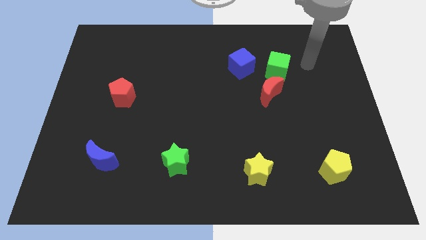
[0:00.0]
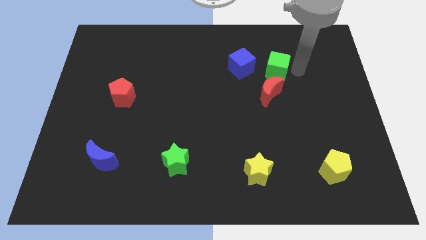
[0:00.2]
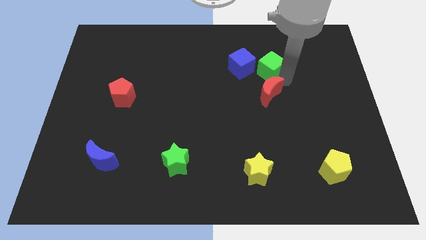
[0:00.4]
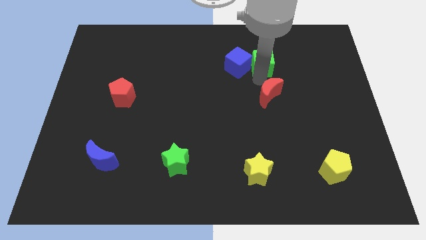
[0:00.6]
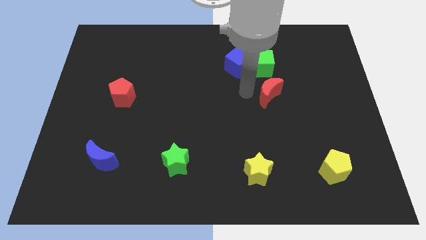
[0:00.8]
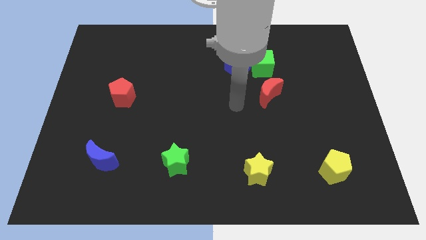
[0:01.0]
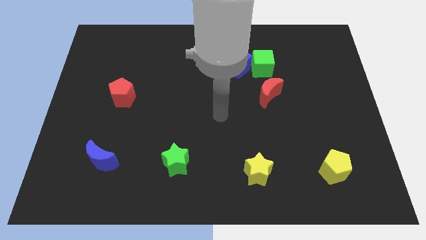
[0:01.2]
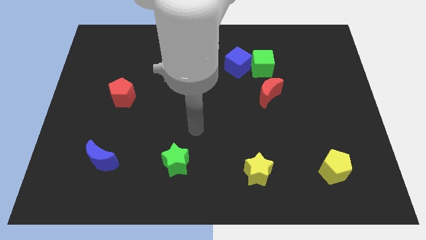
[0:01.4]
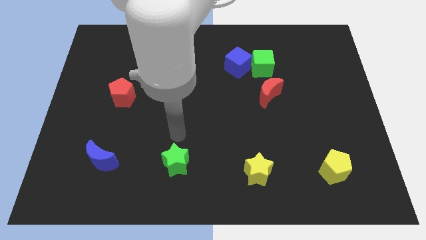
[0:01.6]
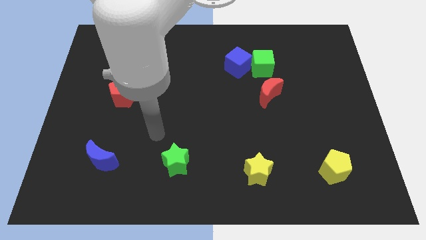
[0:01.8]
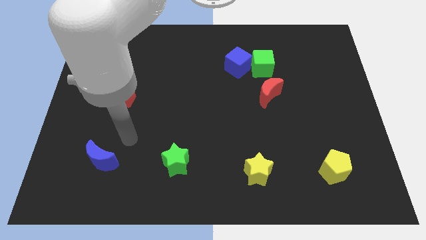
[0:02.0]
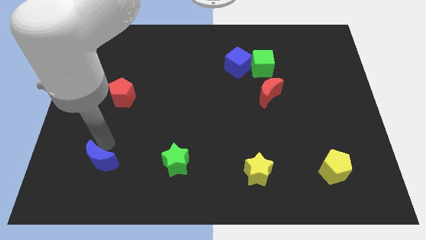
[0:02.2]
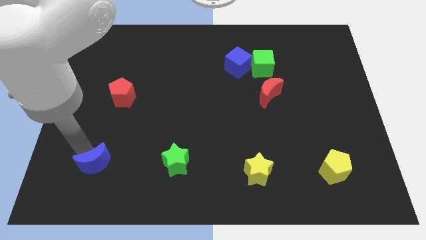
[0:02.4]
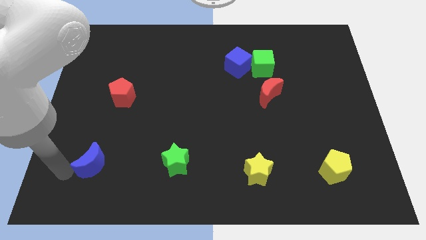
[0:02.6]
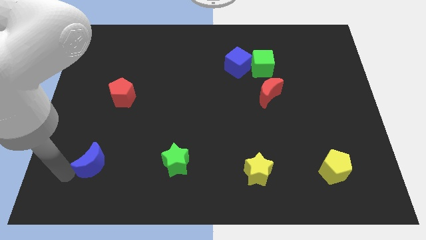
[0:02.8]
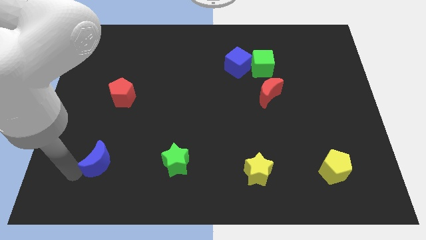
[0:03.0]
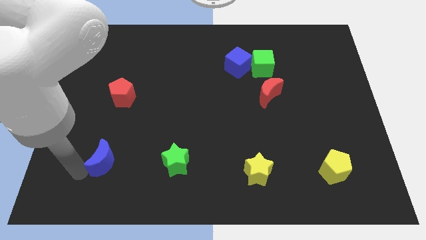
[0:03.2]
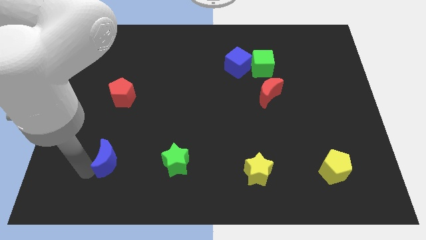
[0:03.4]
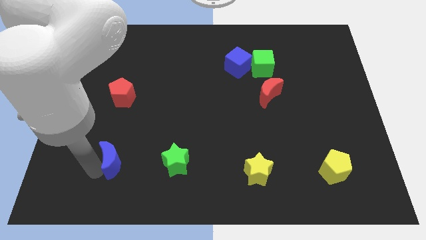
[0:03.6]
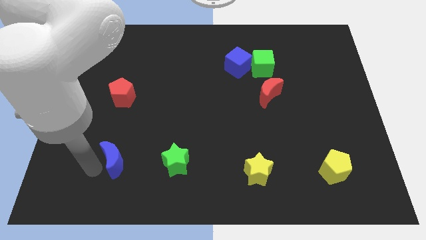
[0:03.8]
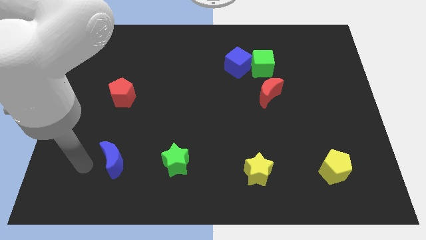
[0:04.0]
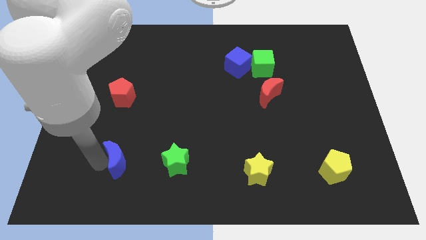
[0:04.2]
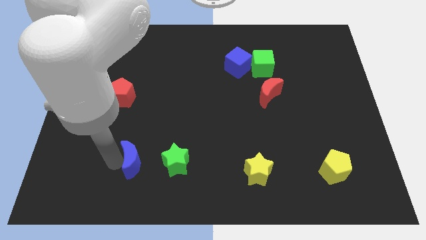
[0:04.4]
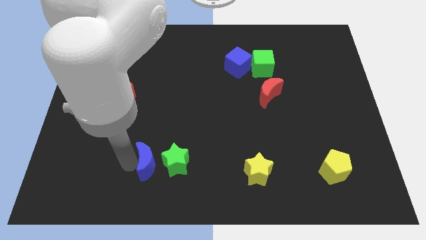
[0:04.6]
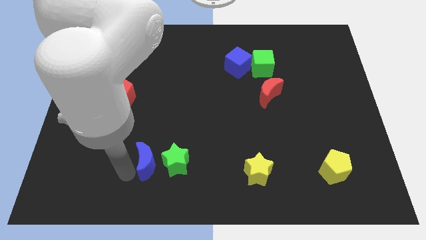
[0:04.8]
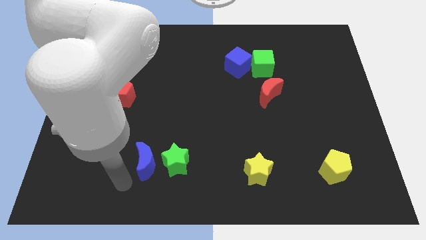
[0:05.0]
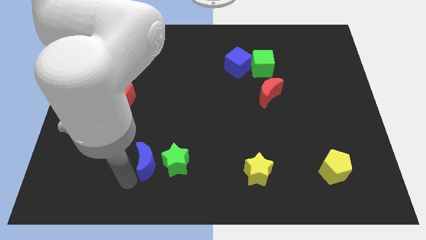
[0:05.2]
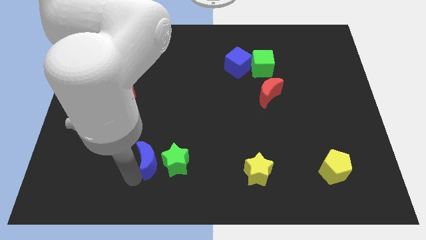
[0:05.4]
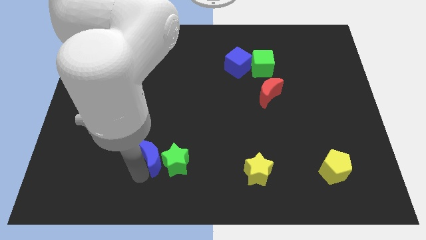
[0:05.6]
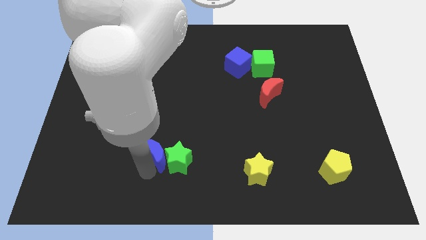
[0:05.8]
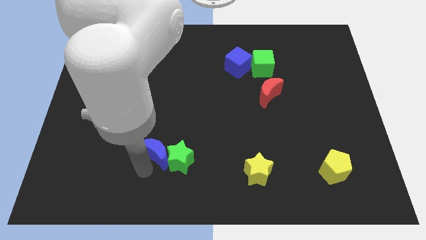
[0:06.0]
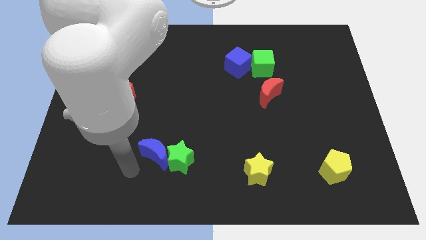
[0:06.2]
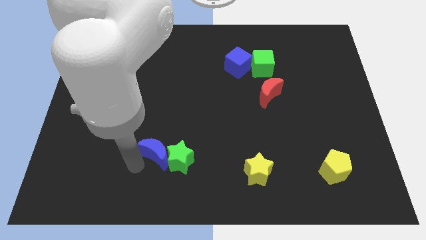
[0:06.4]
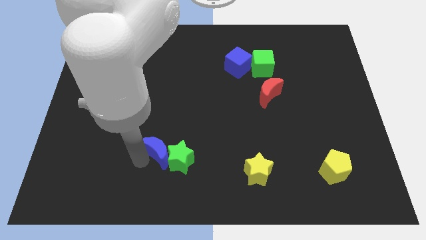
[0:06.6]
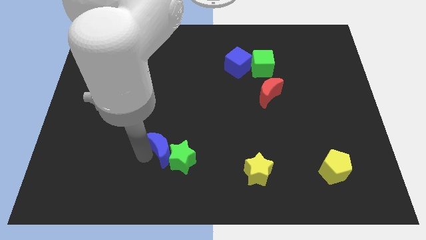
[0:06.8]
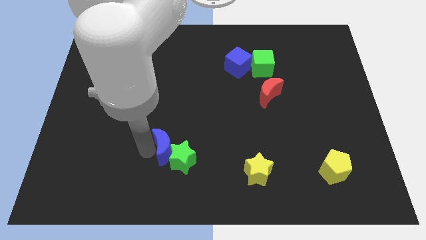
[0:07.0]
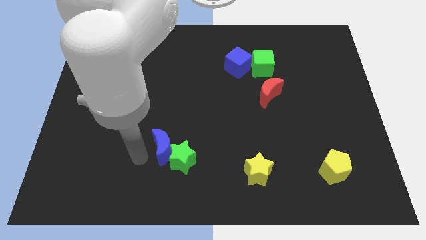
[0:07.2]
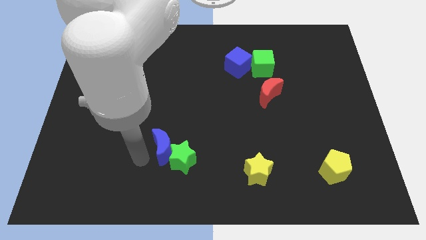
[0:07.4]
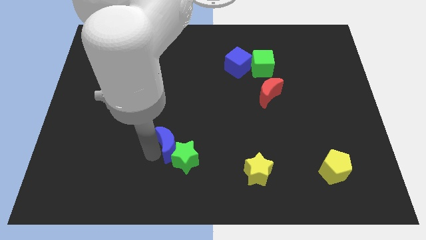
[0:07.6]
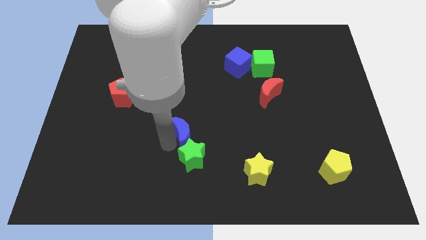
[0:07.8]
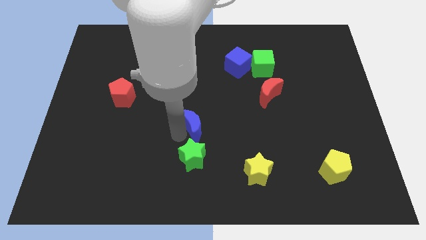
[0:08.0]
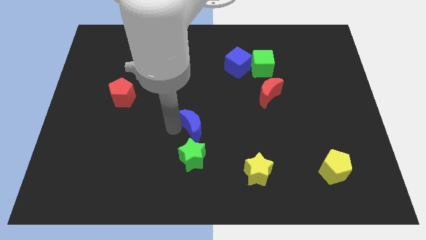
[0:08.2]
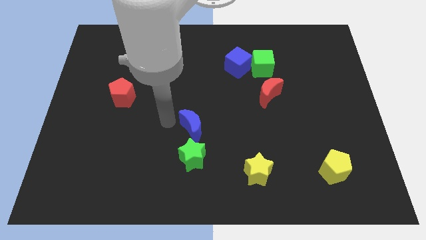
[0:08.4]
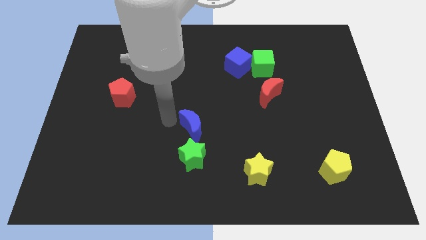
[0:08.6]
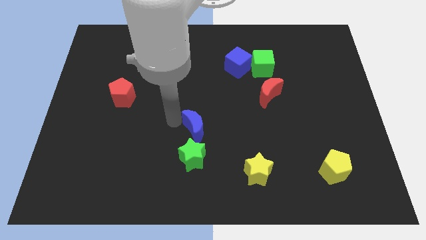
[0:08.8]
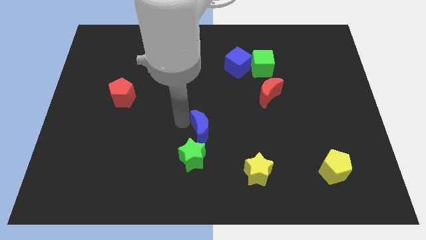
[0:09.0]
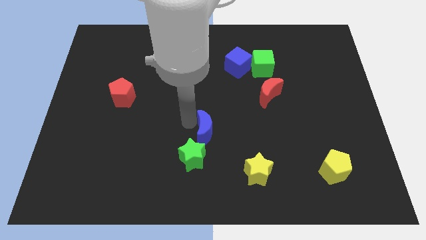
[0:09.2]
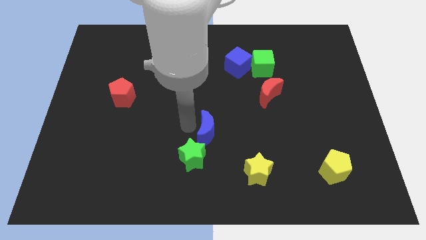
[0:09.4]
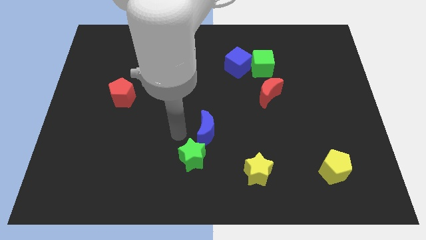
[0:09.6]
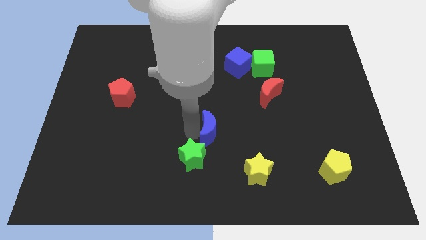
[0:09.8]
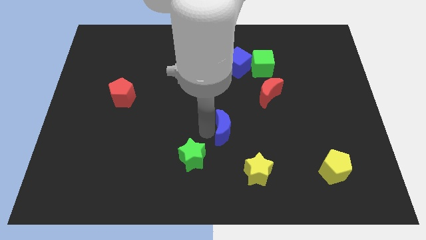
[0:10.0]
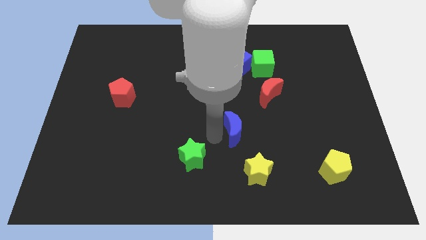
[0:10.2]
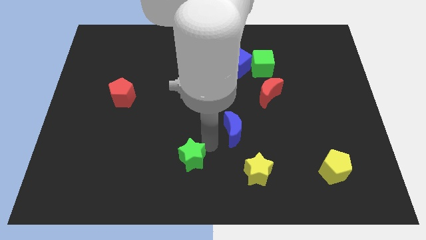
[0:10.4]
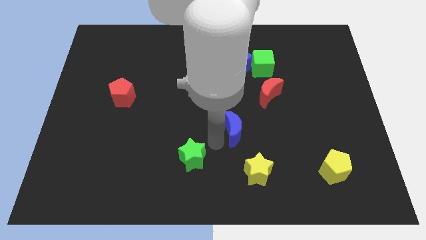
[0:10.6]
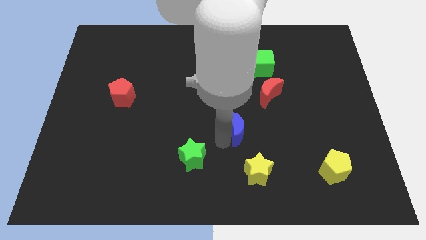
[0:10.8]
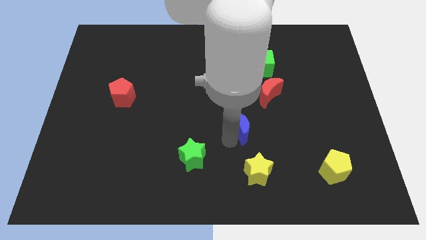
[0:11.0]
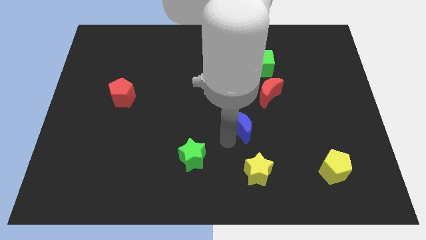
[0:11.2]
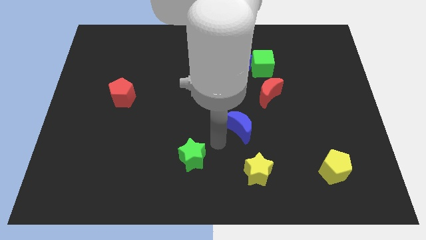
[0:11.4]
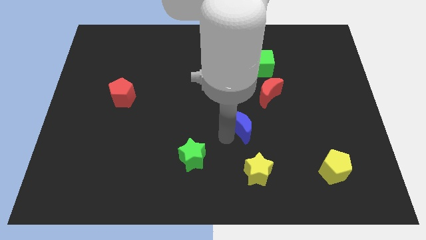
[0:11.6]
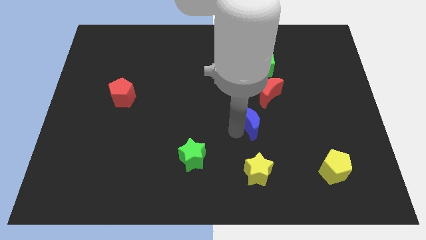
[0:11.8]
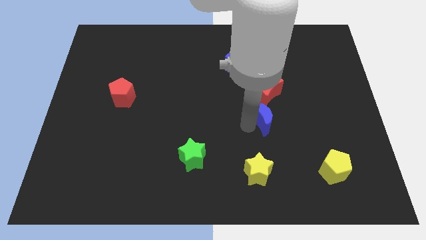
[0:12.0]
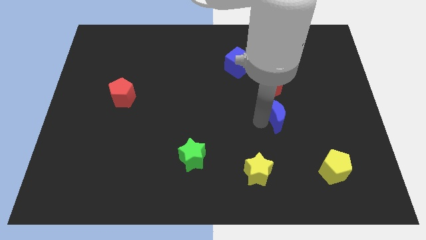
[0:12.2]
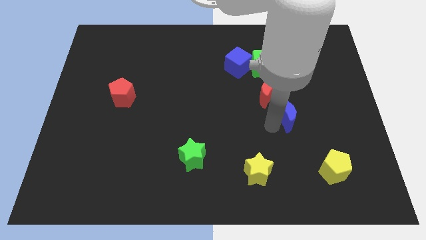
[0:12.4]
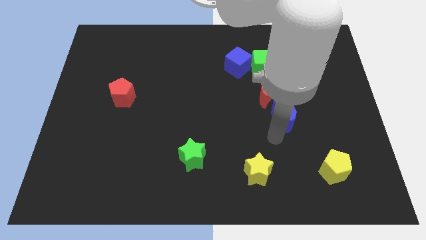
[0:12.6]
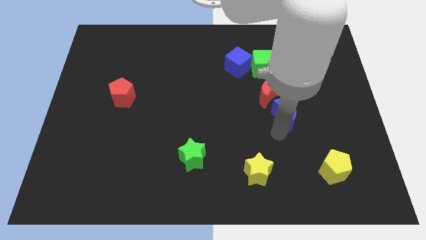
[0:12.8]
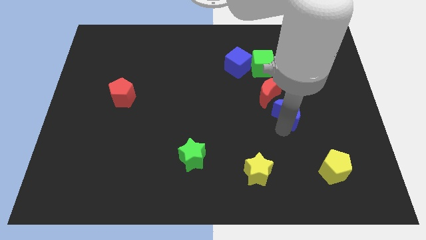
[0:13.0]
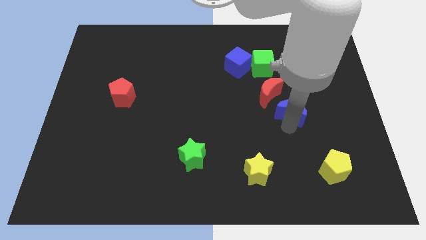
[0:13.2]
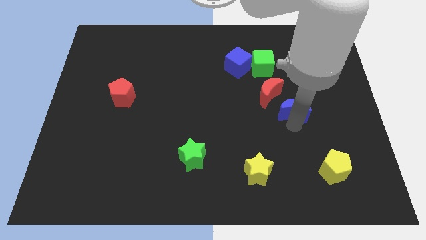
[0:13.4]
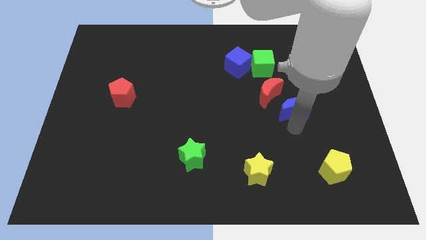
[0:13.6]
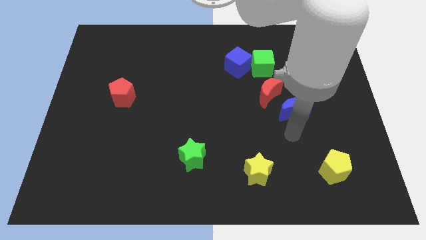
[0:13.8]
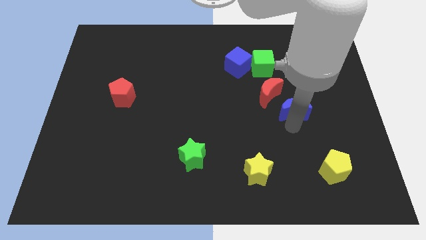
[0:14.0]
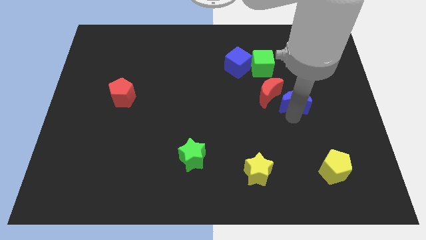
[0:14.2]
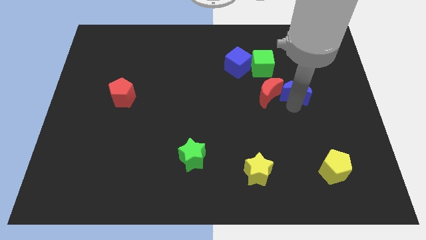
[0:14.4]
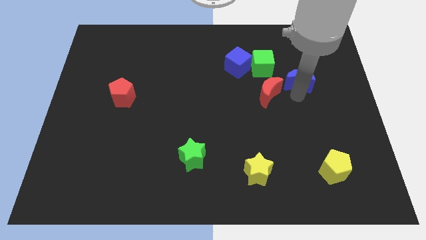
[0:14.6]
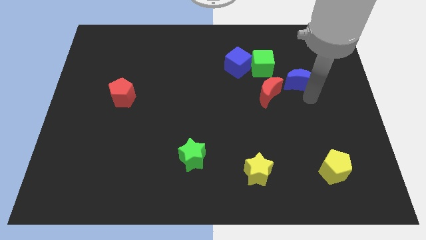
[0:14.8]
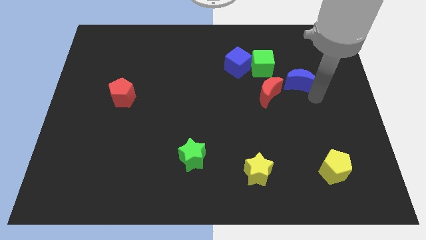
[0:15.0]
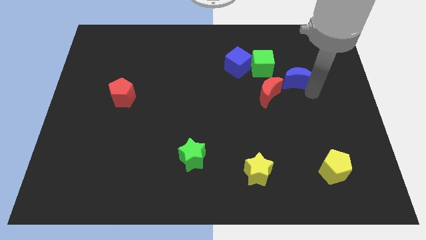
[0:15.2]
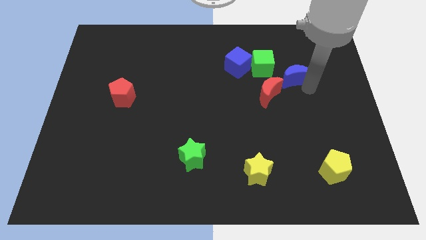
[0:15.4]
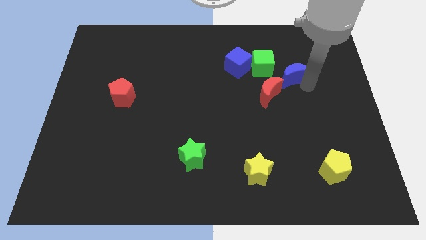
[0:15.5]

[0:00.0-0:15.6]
slide the blue moon just right of the blue cube

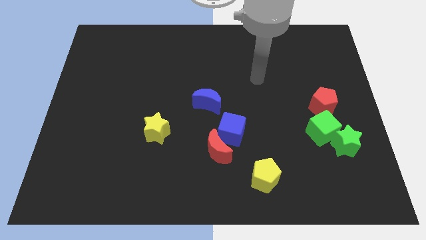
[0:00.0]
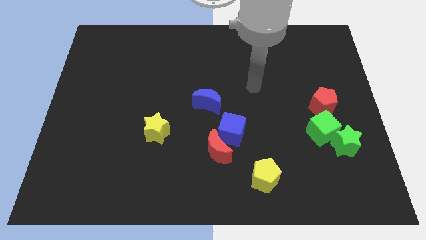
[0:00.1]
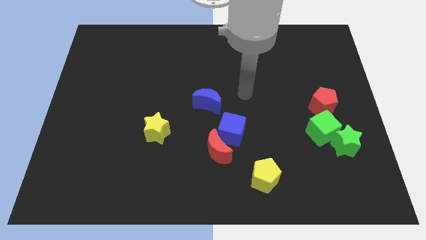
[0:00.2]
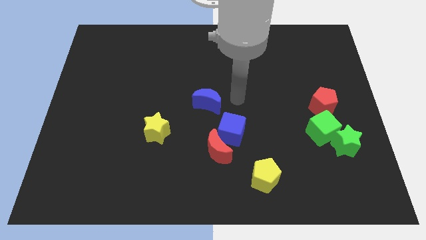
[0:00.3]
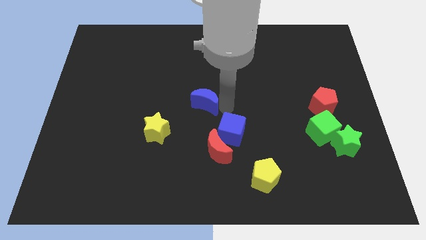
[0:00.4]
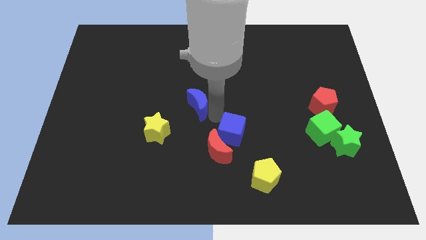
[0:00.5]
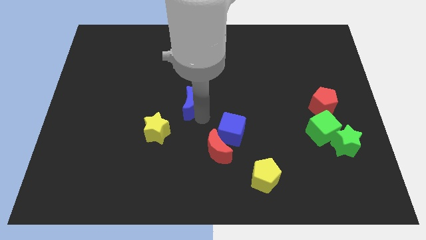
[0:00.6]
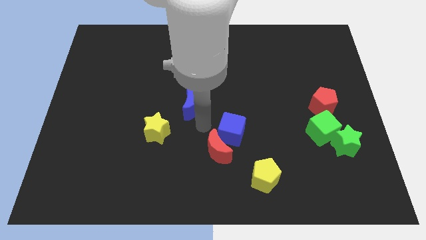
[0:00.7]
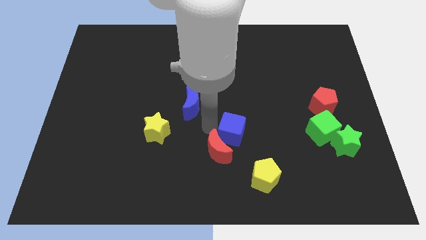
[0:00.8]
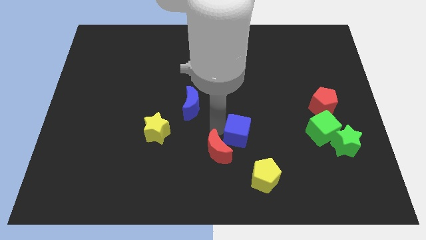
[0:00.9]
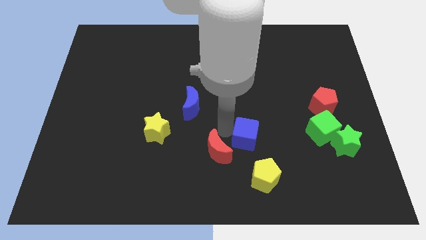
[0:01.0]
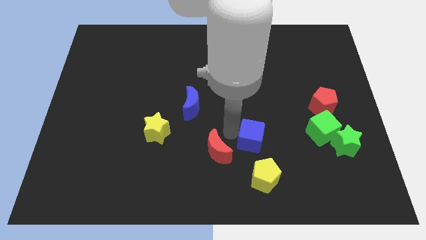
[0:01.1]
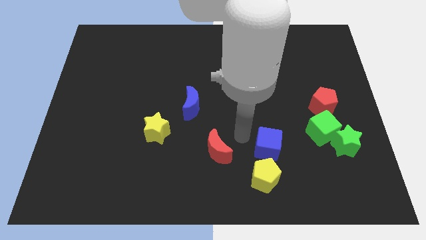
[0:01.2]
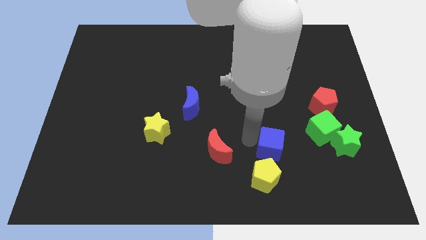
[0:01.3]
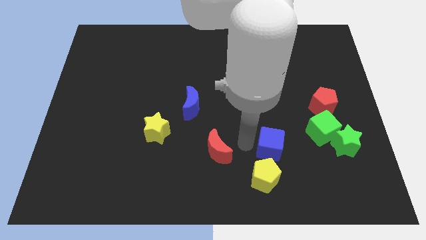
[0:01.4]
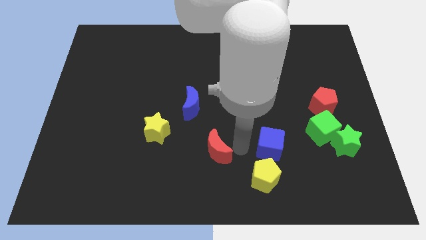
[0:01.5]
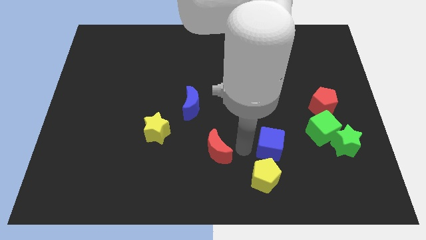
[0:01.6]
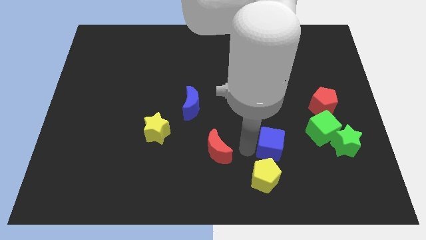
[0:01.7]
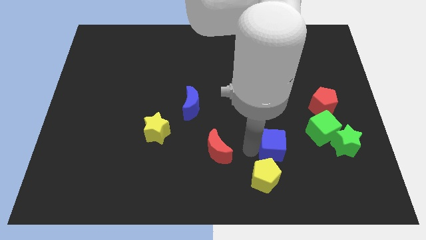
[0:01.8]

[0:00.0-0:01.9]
move the blue cube left of the green star
